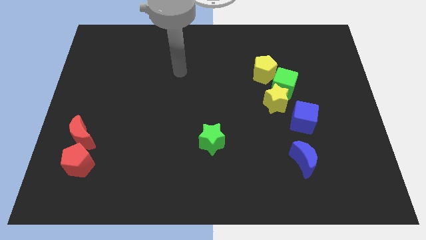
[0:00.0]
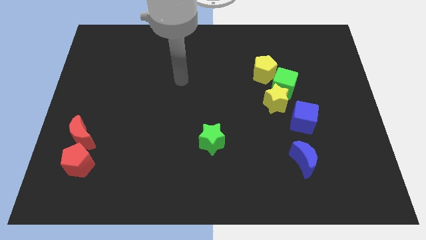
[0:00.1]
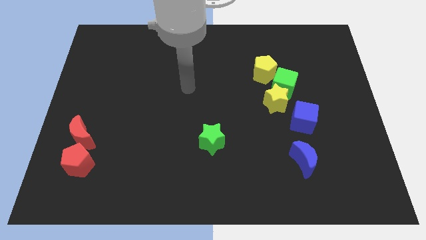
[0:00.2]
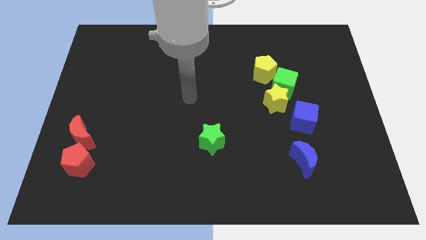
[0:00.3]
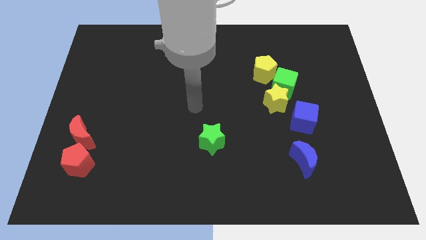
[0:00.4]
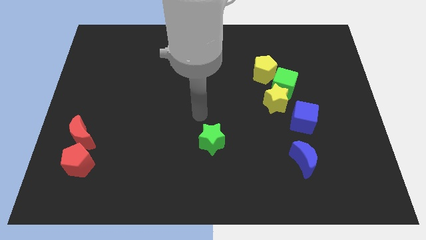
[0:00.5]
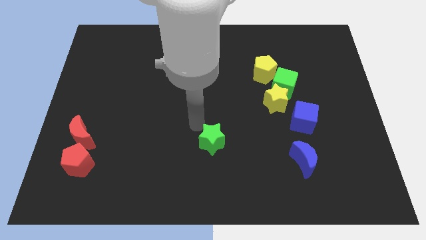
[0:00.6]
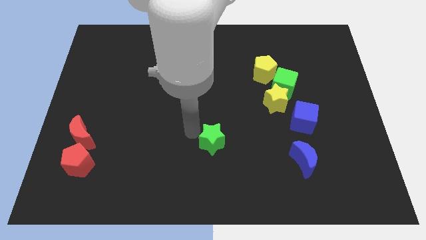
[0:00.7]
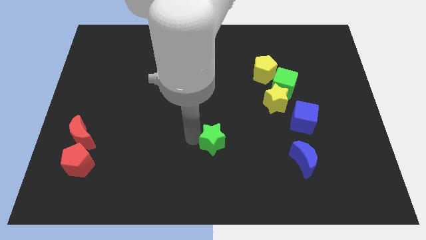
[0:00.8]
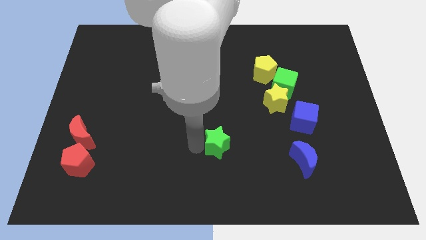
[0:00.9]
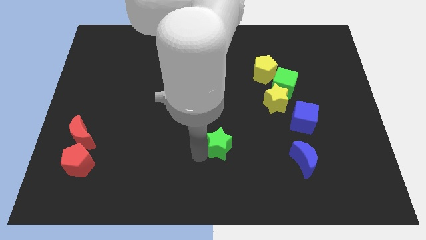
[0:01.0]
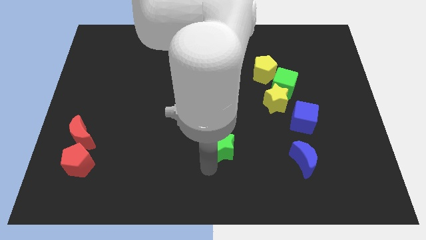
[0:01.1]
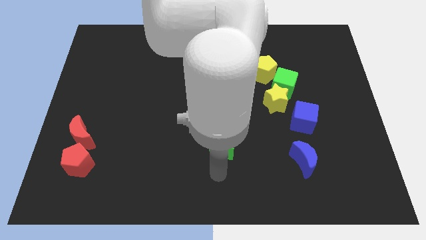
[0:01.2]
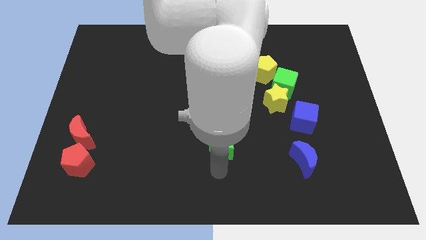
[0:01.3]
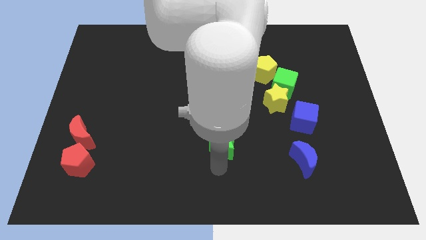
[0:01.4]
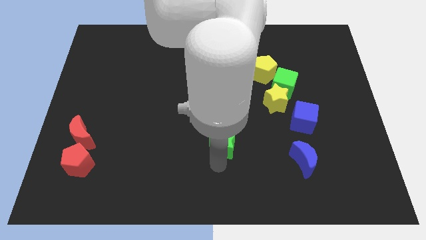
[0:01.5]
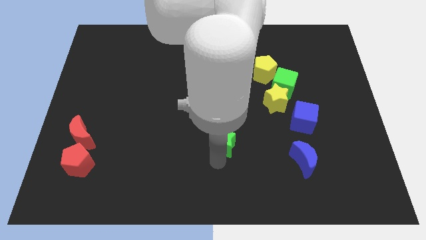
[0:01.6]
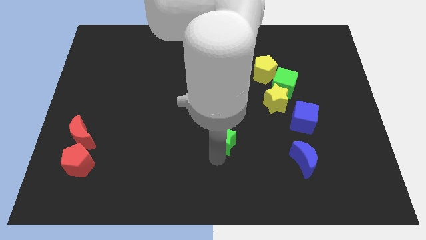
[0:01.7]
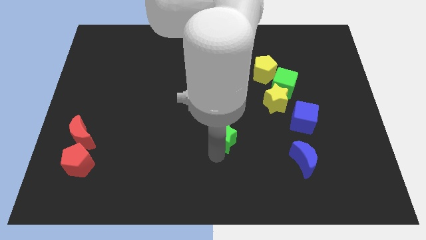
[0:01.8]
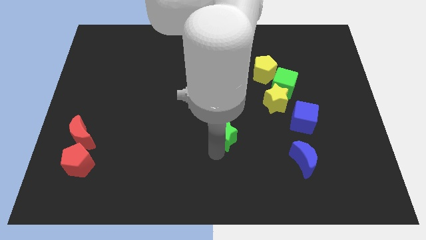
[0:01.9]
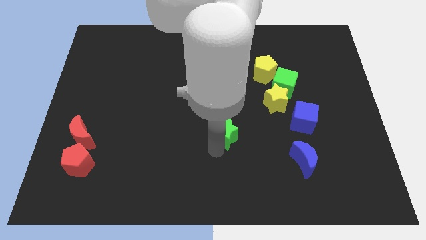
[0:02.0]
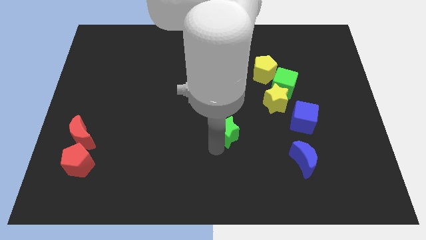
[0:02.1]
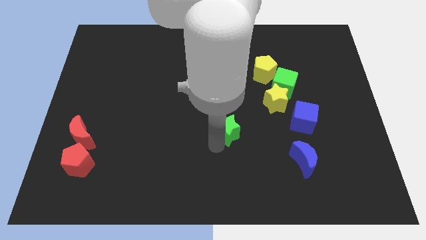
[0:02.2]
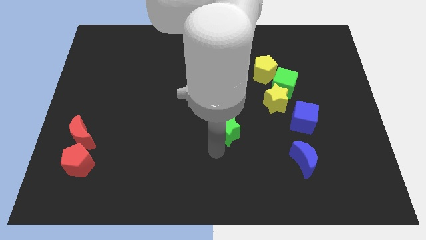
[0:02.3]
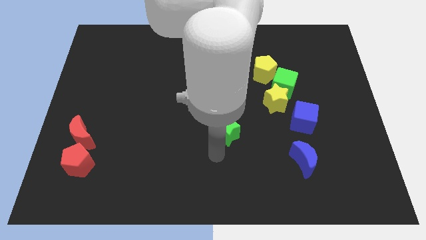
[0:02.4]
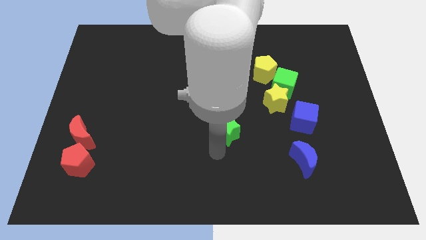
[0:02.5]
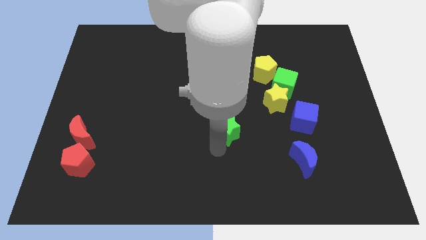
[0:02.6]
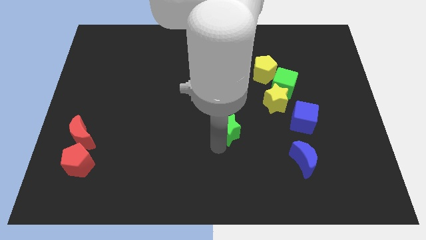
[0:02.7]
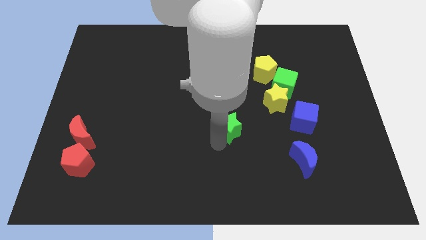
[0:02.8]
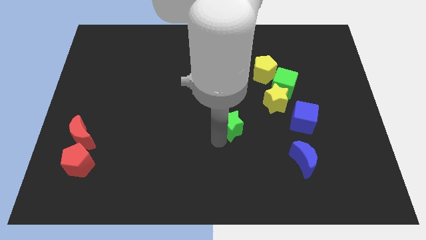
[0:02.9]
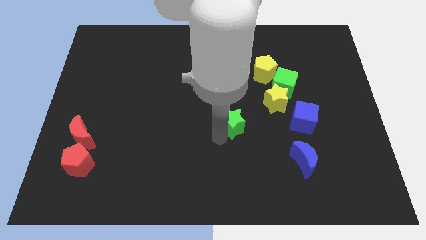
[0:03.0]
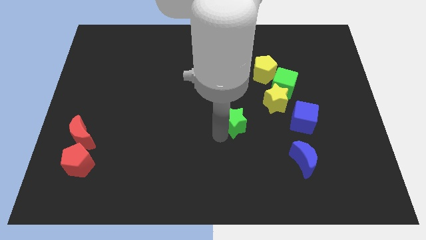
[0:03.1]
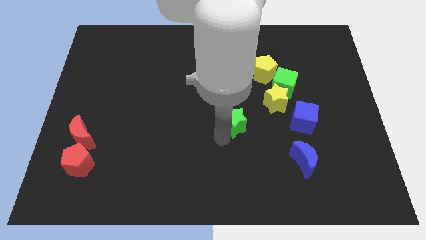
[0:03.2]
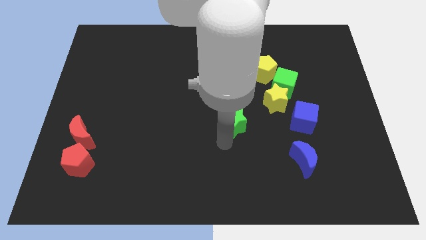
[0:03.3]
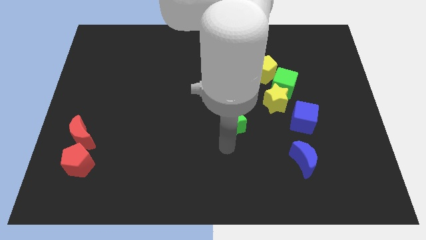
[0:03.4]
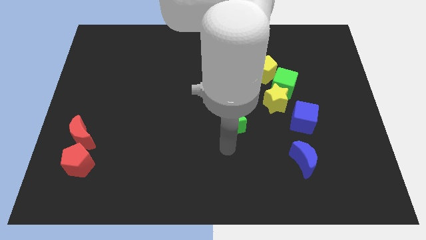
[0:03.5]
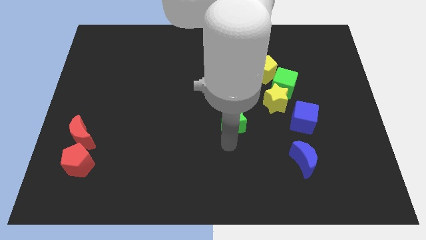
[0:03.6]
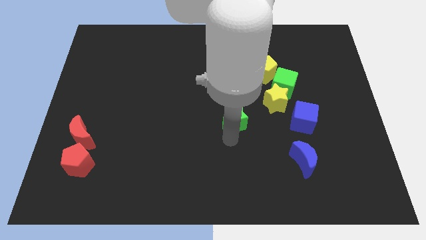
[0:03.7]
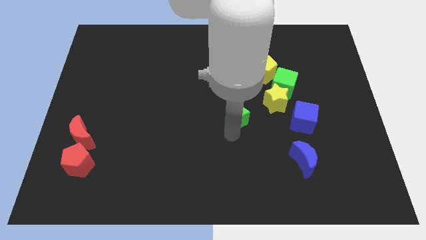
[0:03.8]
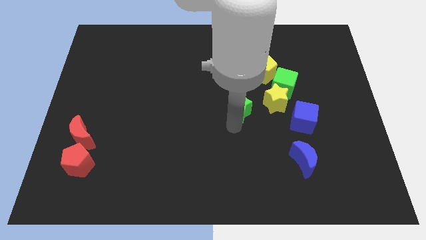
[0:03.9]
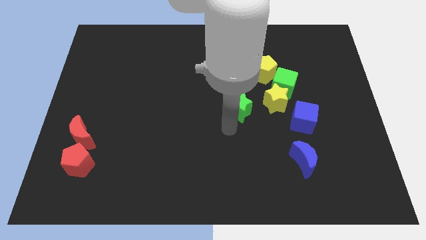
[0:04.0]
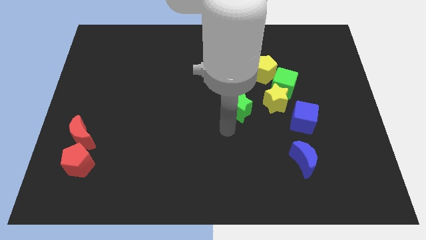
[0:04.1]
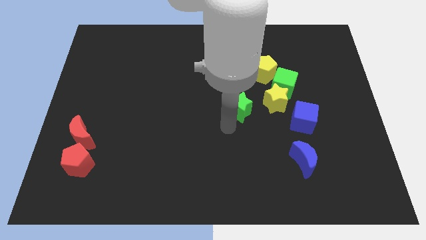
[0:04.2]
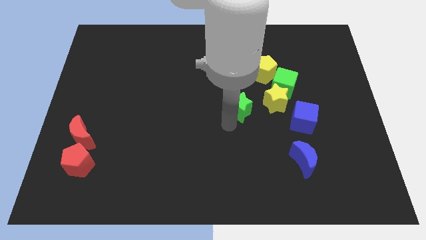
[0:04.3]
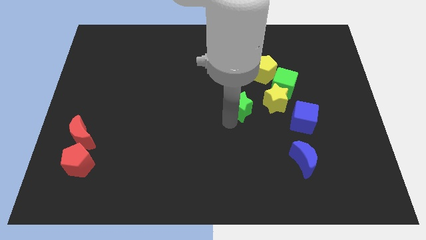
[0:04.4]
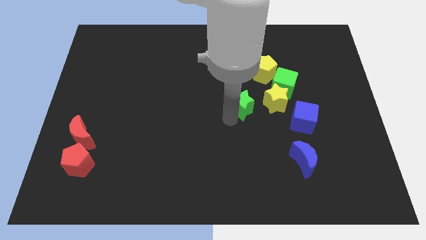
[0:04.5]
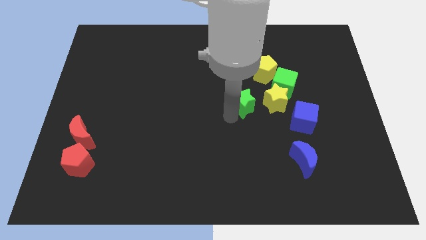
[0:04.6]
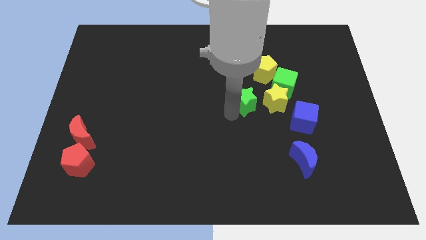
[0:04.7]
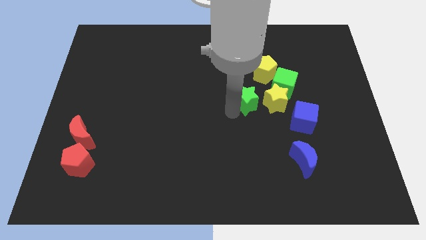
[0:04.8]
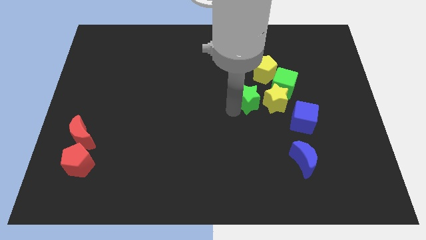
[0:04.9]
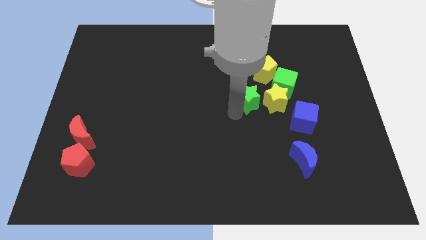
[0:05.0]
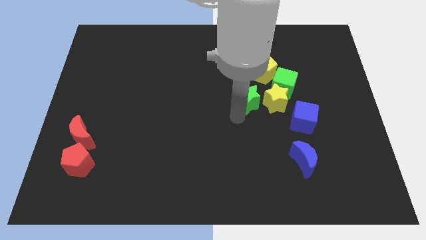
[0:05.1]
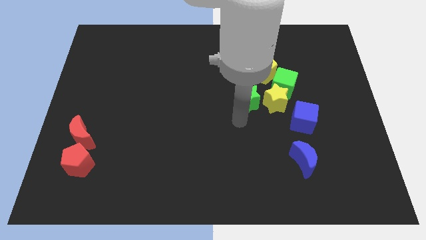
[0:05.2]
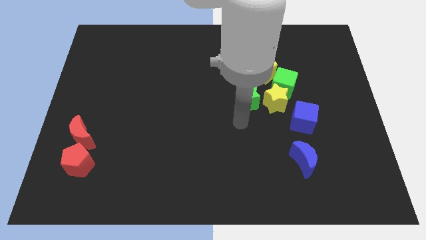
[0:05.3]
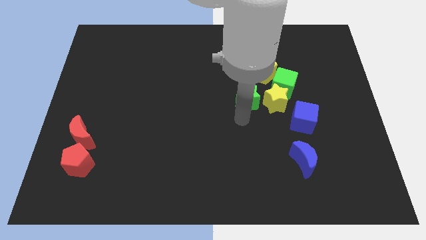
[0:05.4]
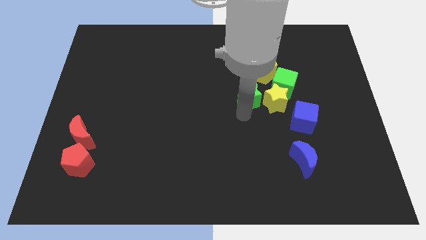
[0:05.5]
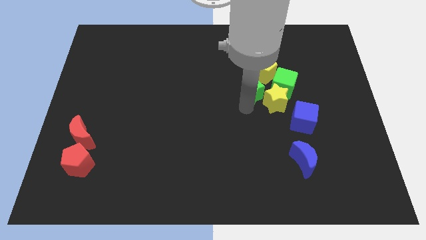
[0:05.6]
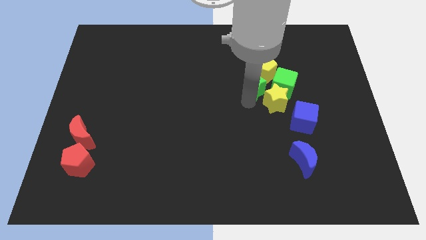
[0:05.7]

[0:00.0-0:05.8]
push the green star close to the yellow pentagon

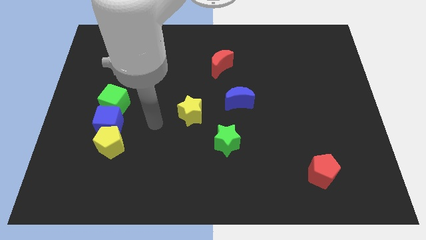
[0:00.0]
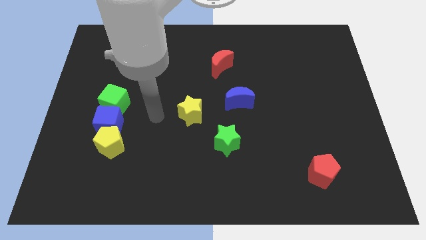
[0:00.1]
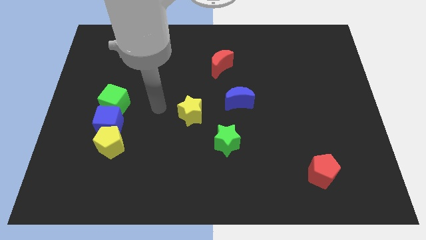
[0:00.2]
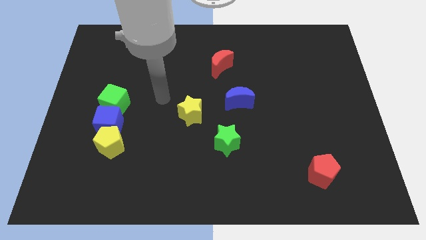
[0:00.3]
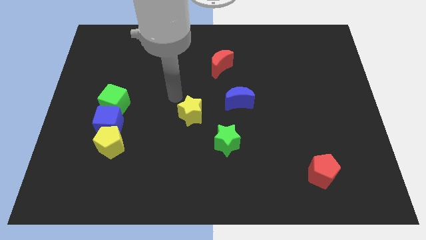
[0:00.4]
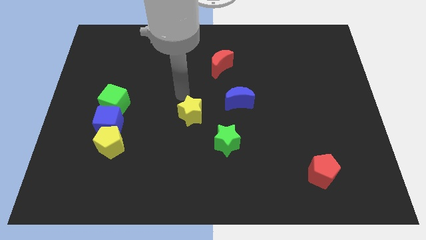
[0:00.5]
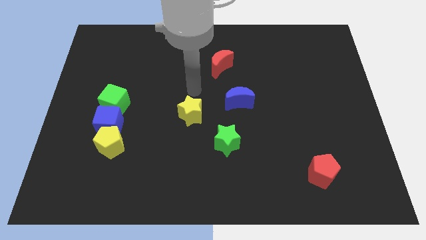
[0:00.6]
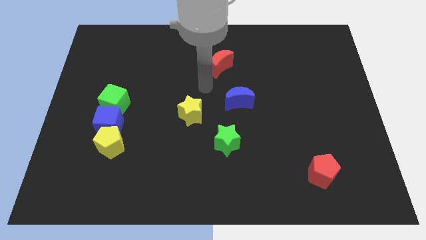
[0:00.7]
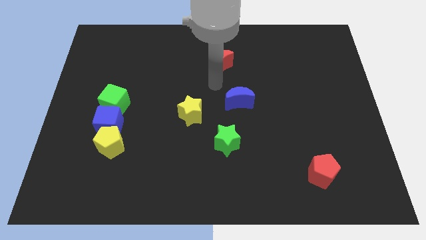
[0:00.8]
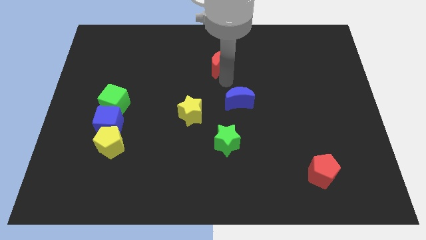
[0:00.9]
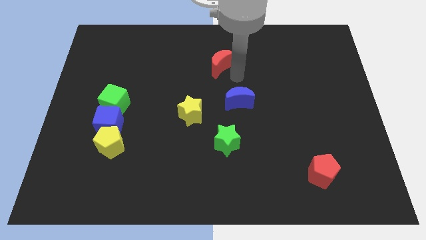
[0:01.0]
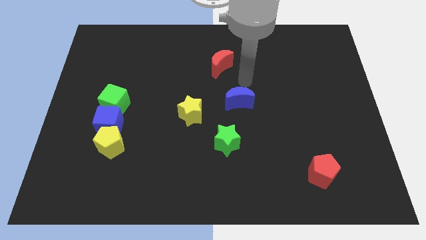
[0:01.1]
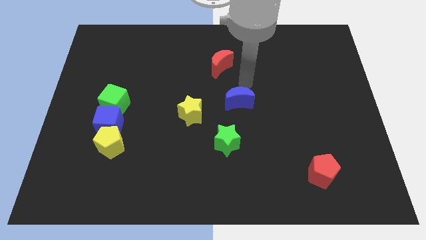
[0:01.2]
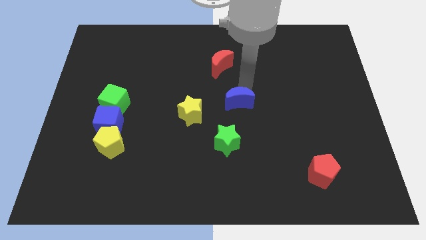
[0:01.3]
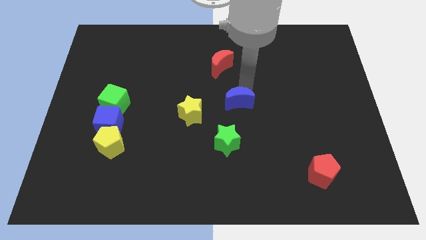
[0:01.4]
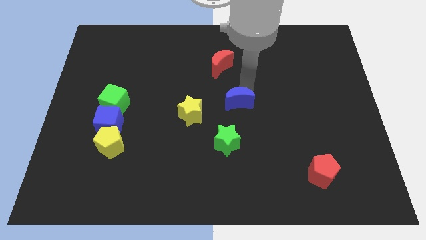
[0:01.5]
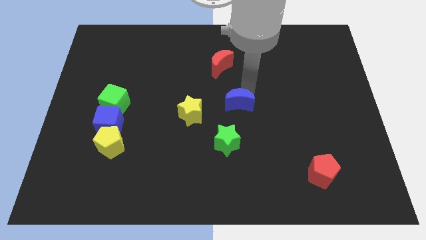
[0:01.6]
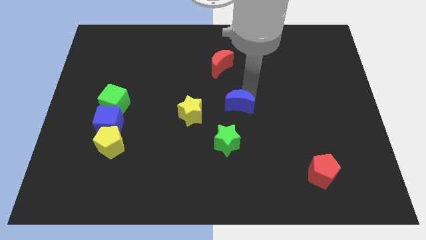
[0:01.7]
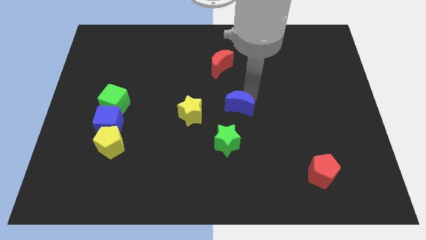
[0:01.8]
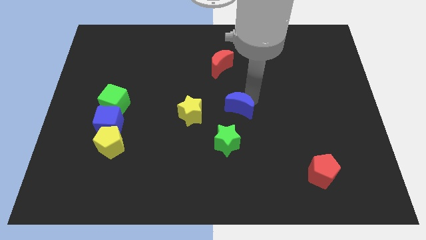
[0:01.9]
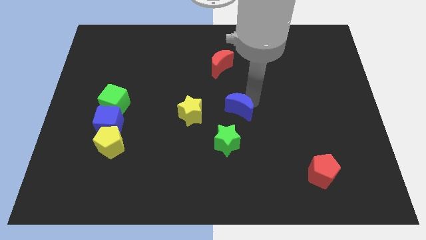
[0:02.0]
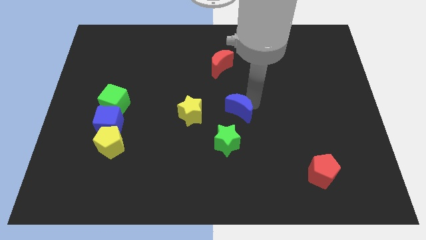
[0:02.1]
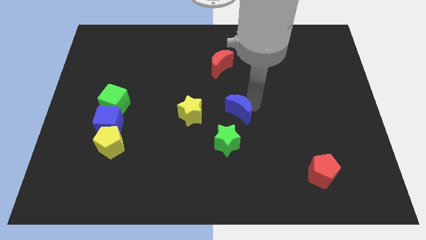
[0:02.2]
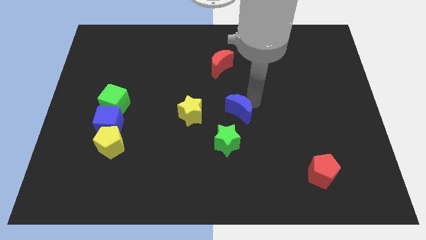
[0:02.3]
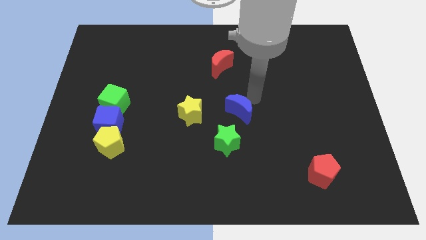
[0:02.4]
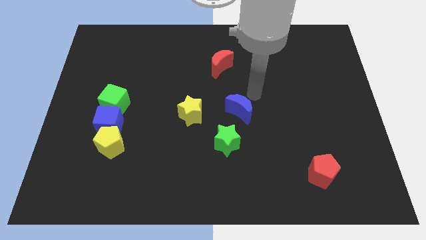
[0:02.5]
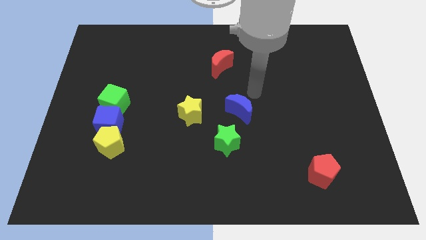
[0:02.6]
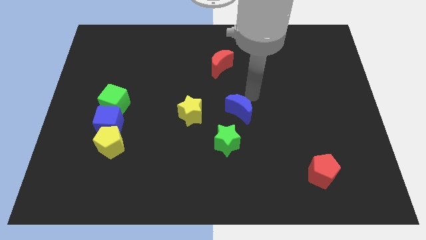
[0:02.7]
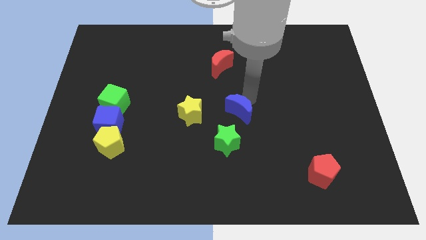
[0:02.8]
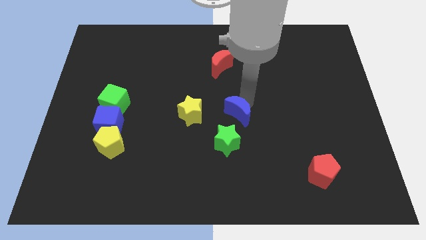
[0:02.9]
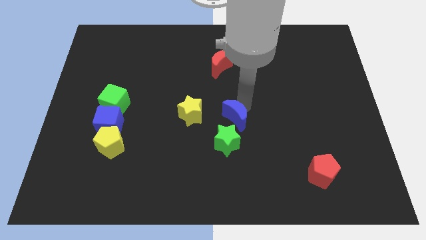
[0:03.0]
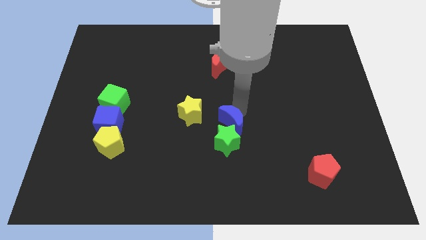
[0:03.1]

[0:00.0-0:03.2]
move the blue moon towards the green star
